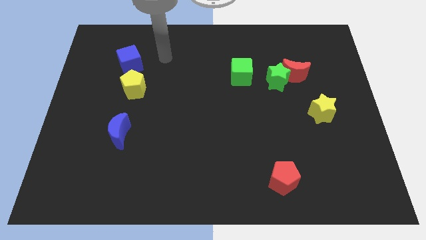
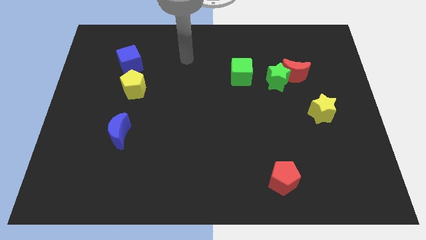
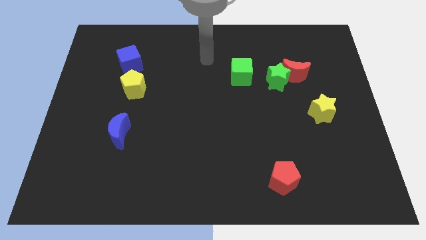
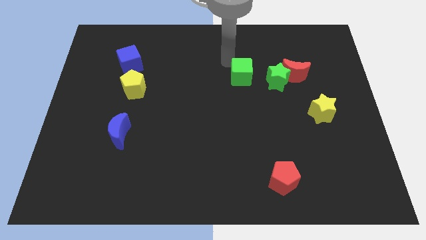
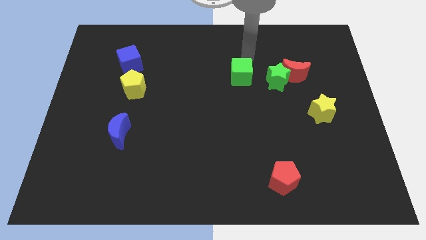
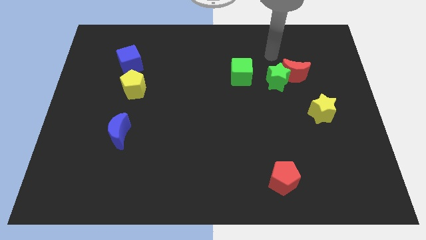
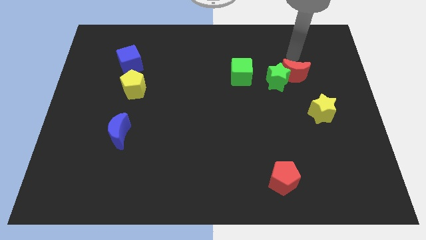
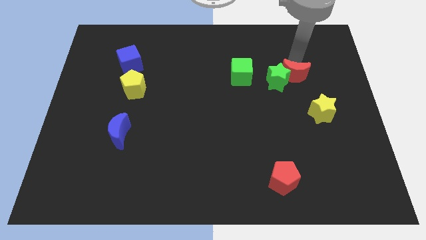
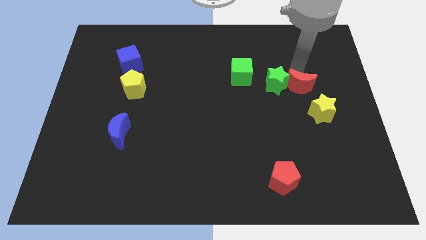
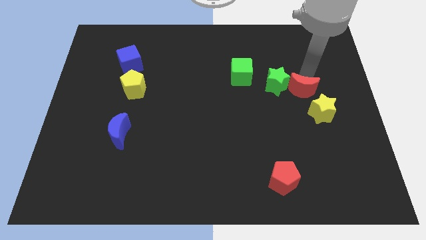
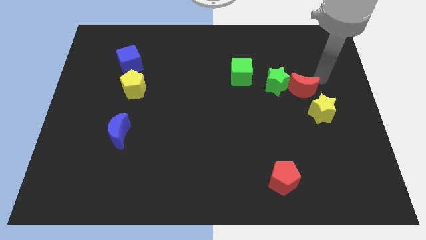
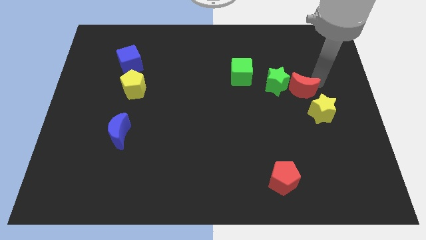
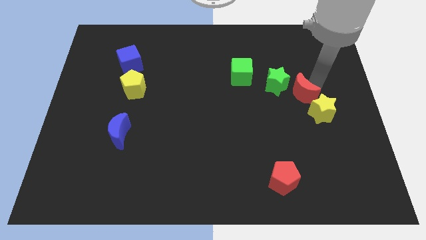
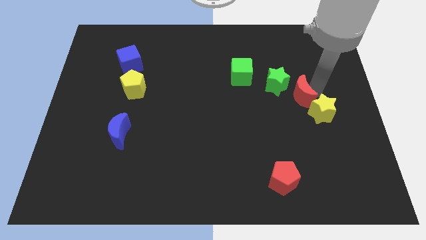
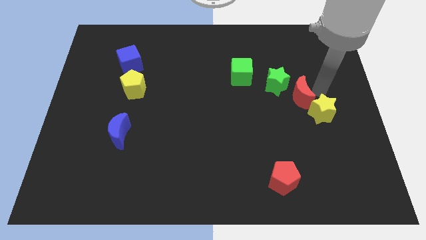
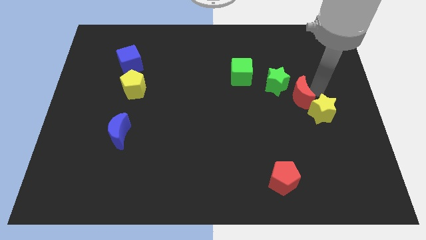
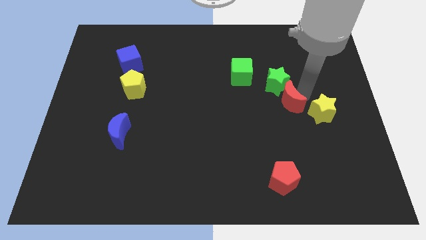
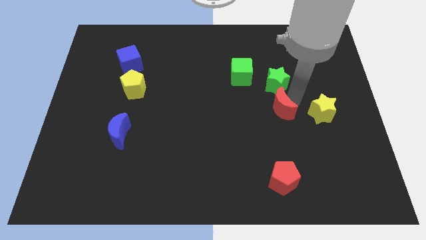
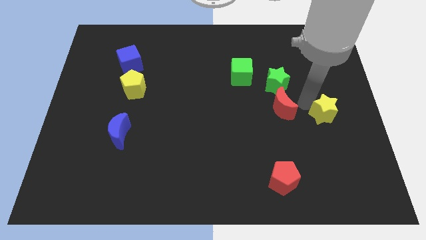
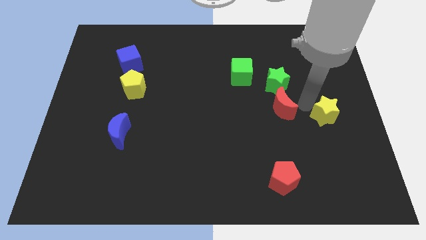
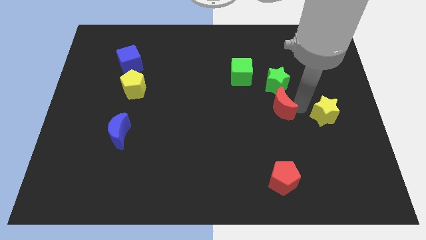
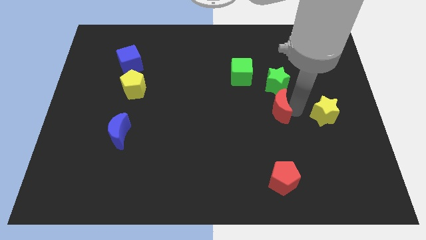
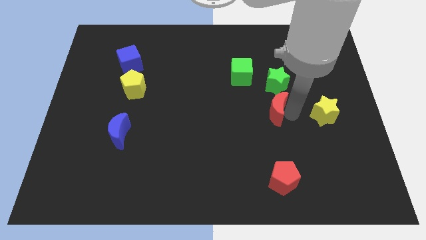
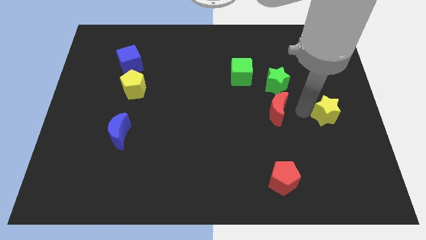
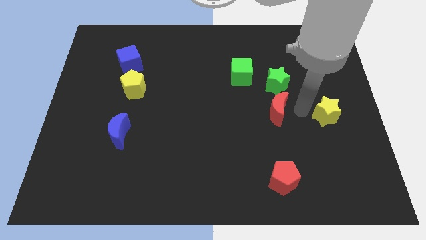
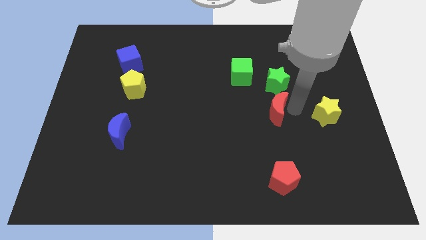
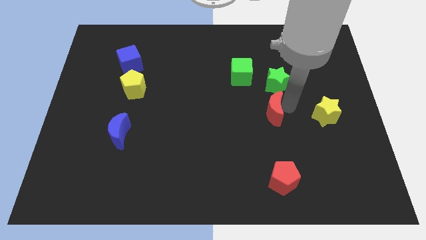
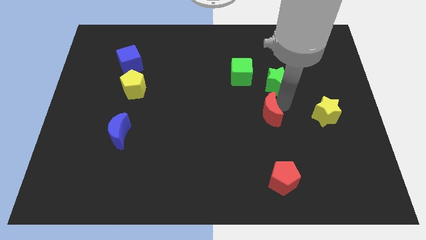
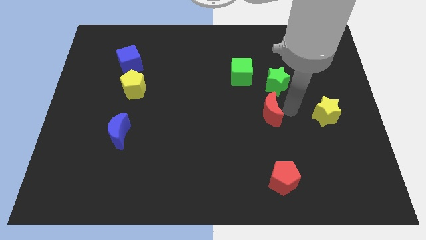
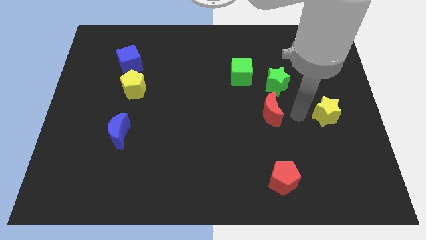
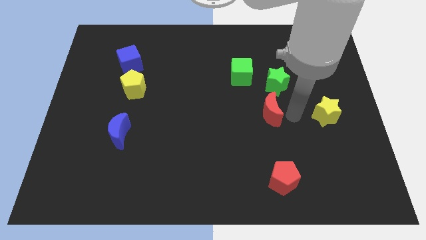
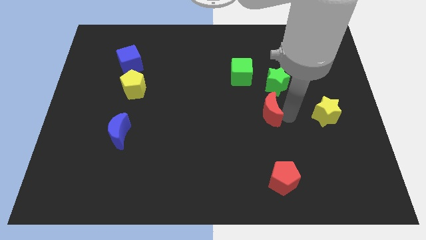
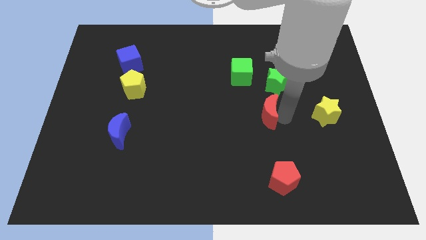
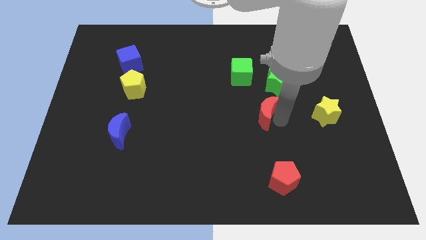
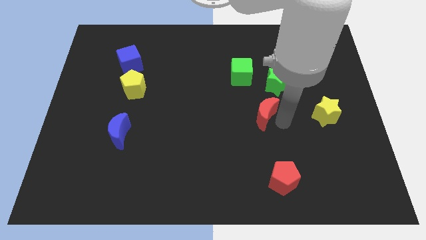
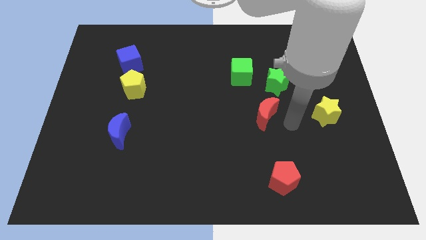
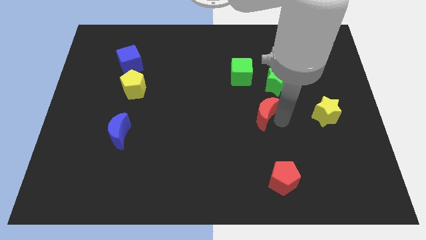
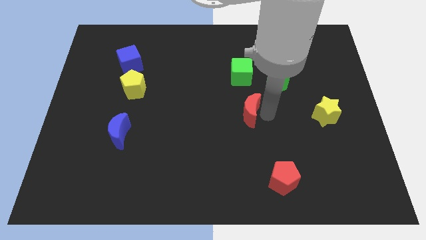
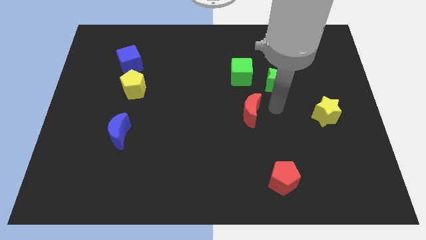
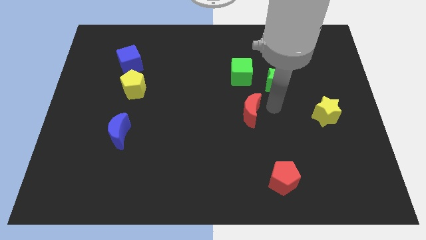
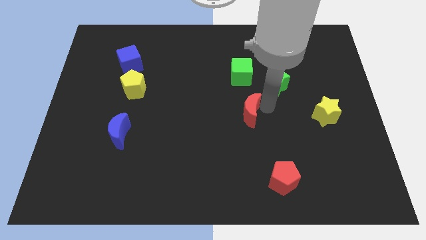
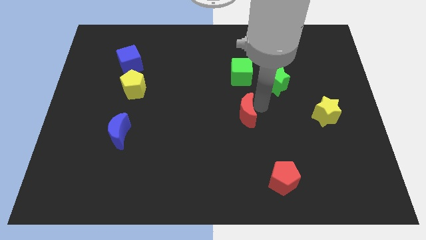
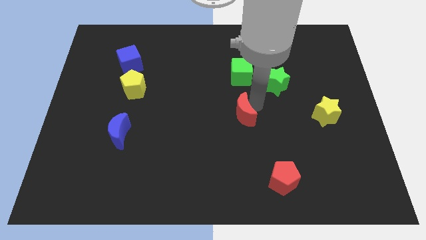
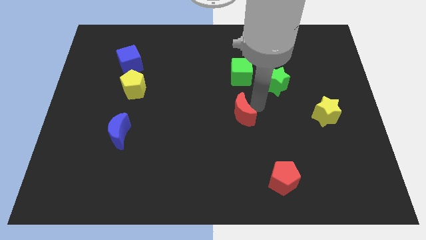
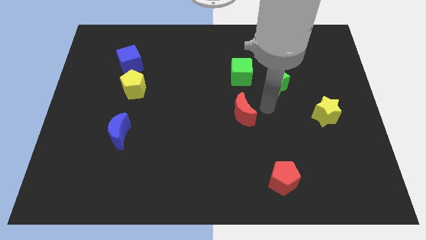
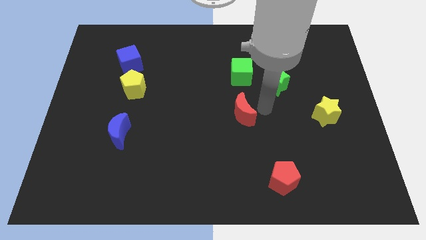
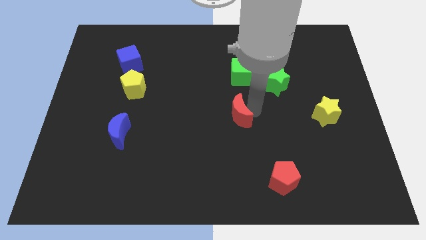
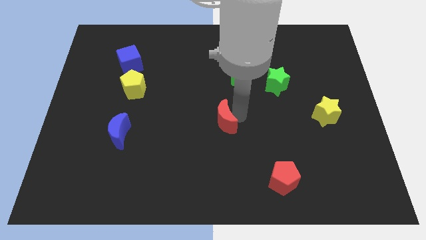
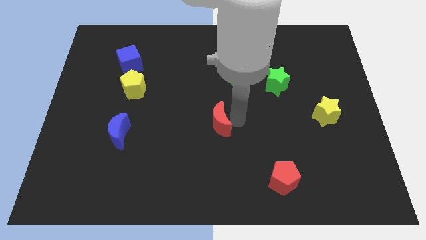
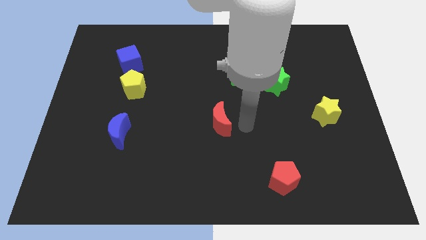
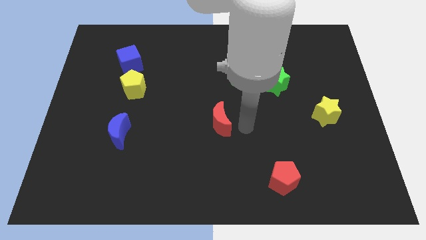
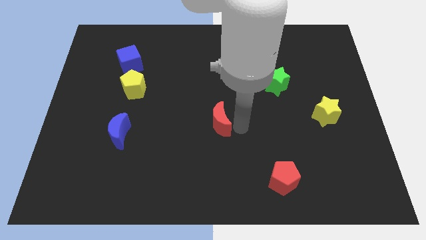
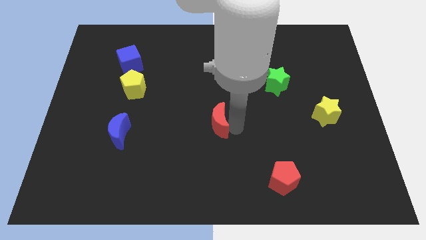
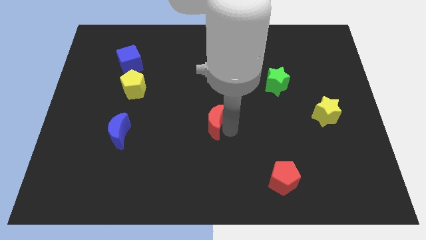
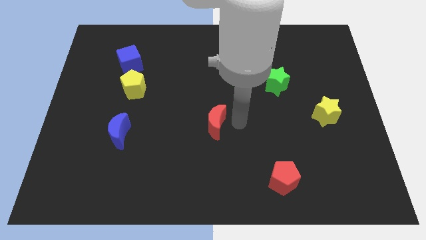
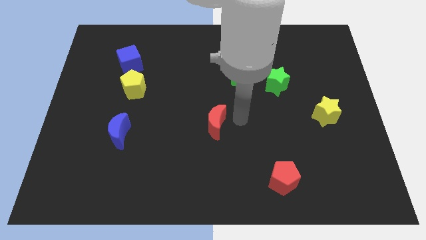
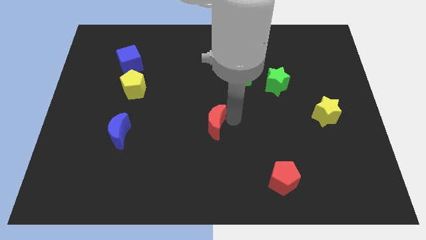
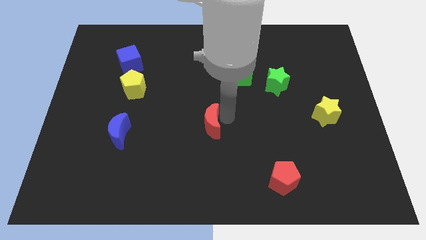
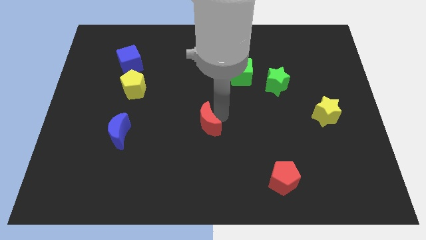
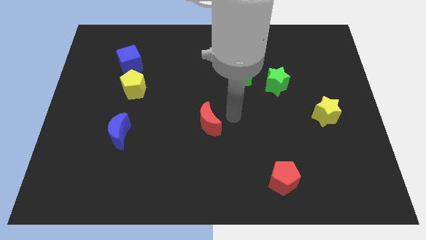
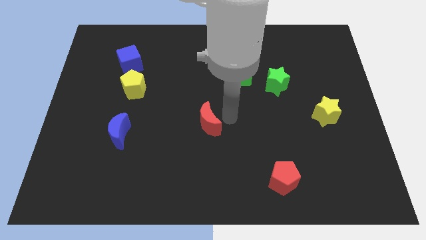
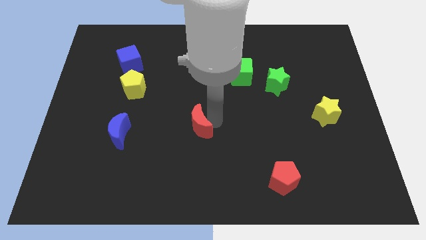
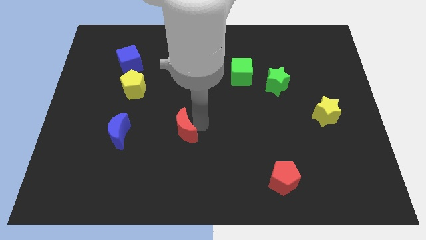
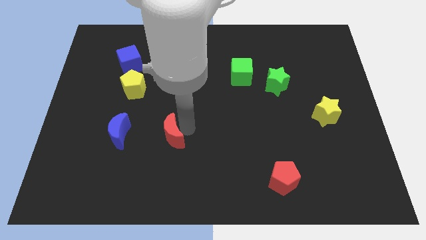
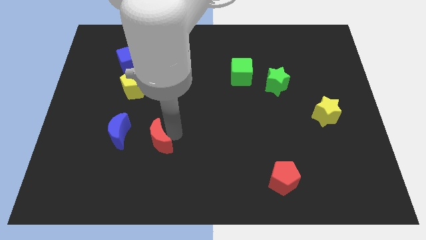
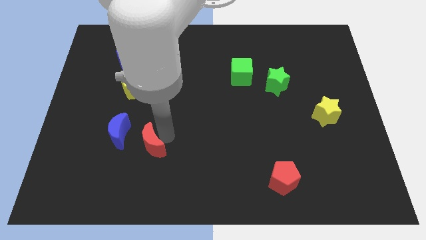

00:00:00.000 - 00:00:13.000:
move the red moon to the bottom right side of the blue moon

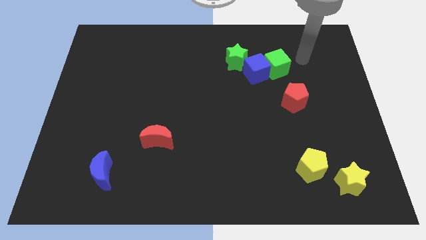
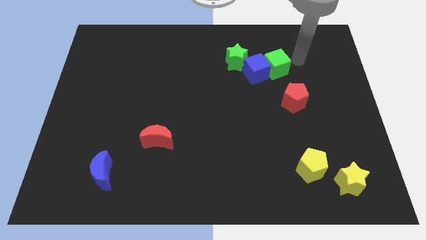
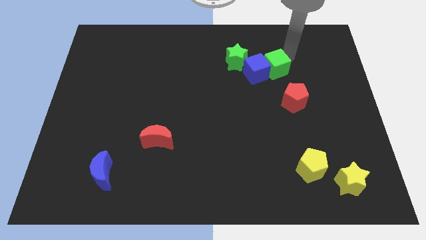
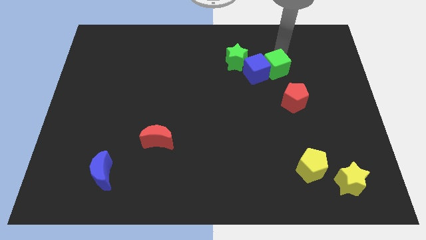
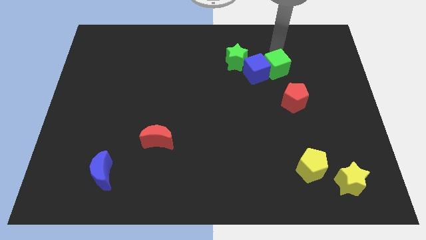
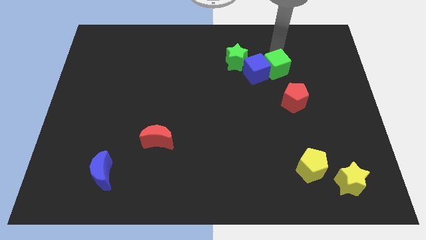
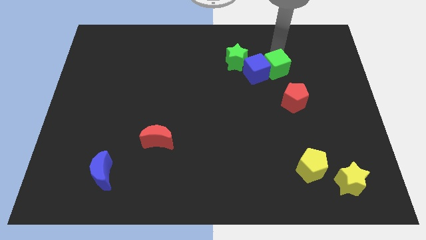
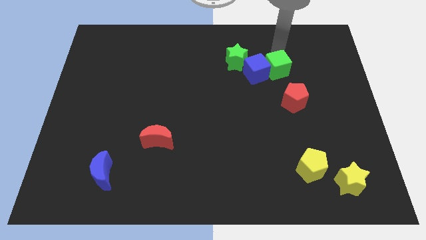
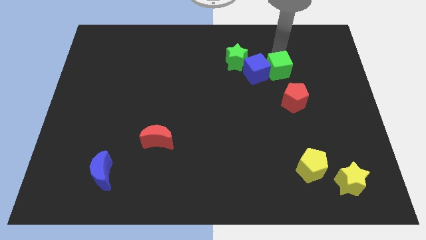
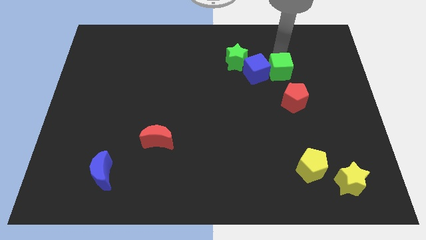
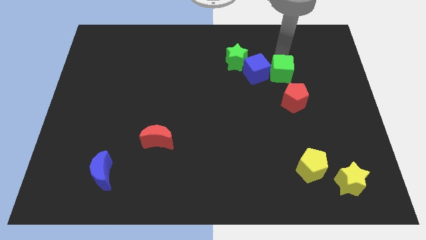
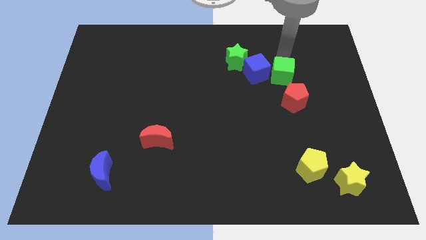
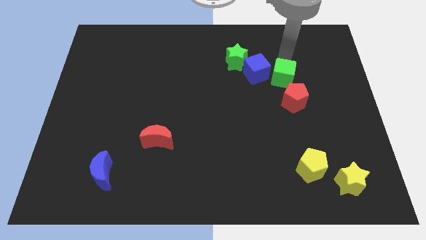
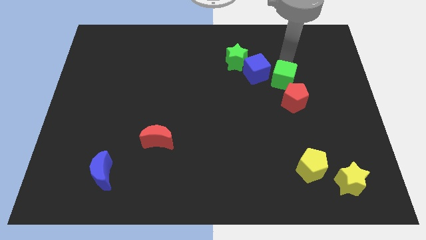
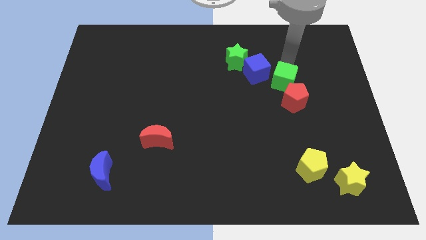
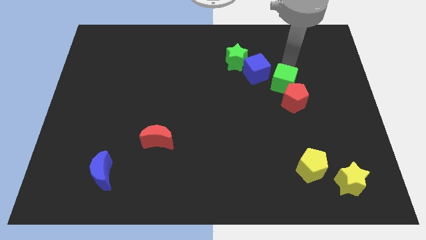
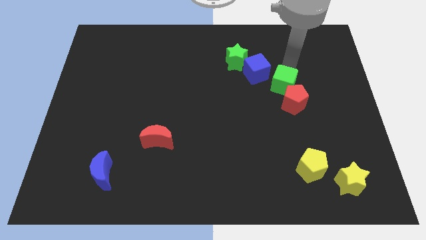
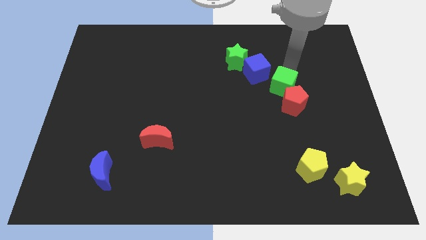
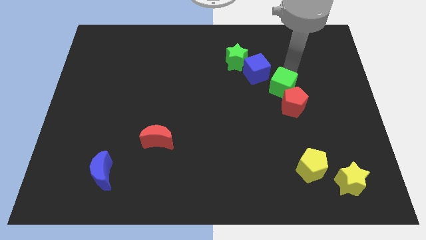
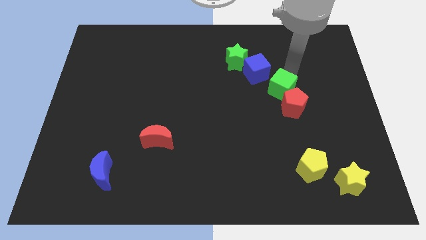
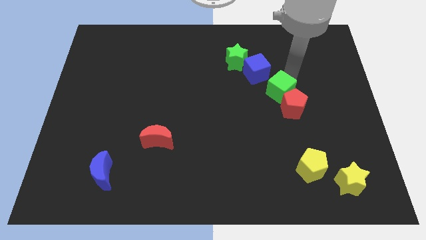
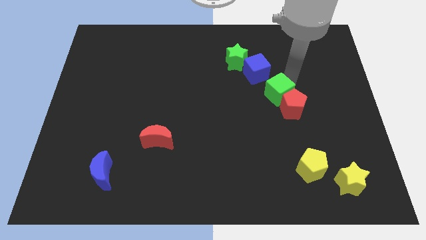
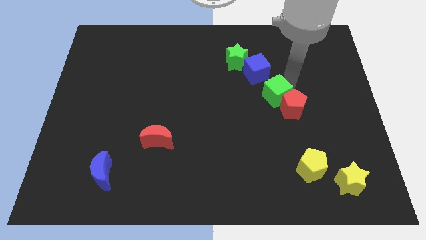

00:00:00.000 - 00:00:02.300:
put the green cube to the left of the red pentagon
